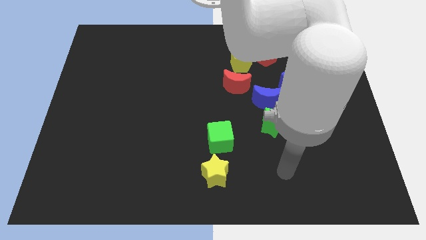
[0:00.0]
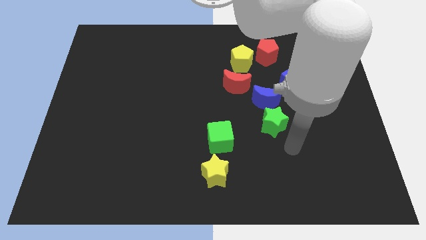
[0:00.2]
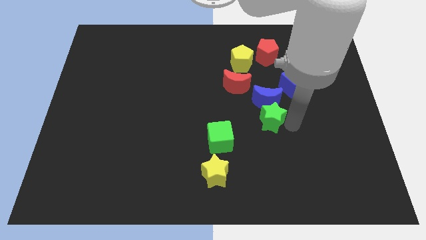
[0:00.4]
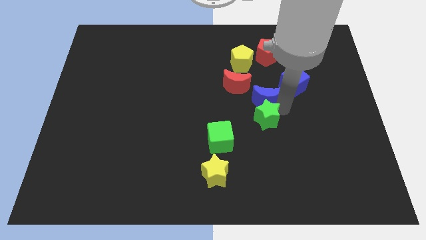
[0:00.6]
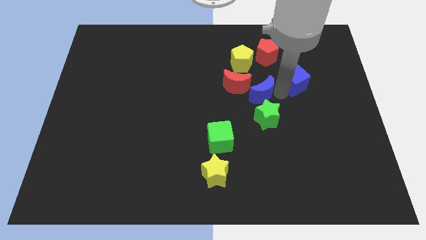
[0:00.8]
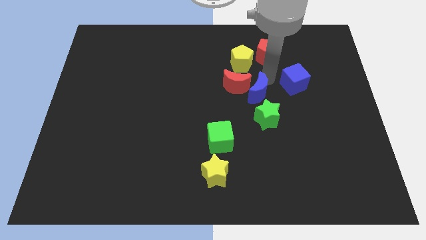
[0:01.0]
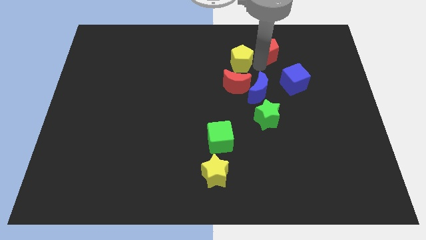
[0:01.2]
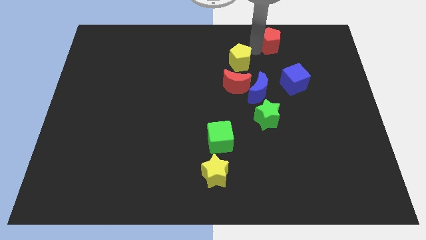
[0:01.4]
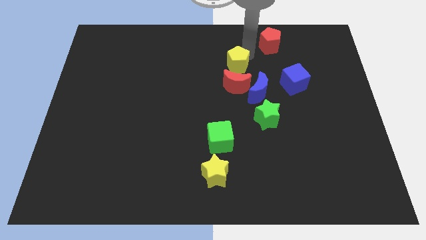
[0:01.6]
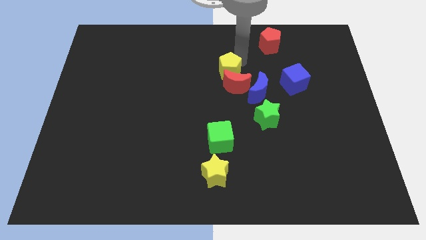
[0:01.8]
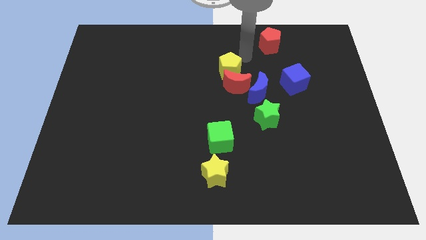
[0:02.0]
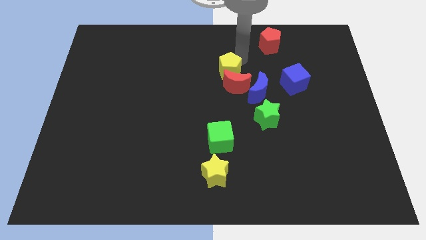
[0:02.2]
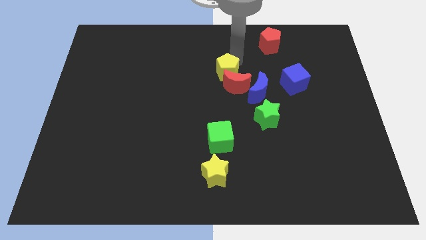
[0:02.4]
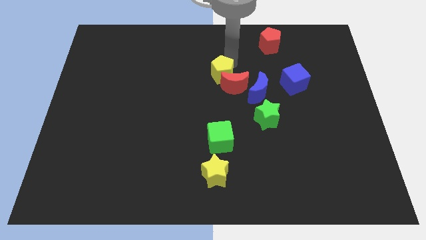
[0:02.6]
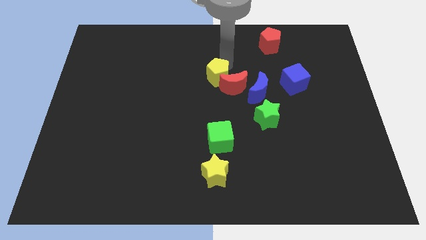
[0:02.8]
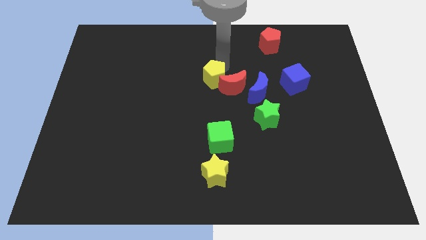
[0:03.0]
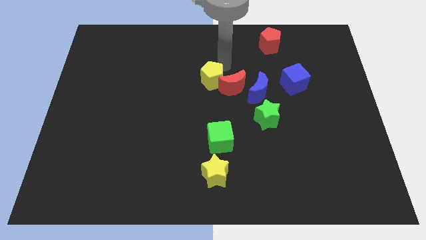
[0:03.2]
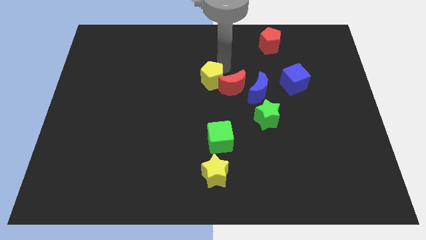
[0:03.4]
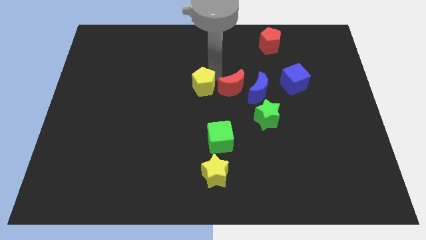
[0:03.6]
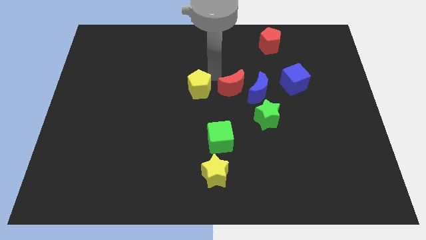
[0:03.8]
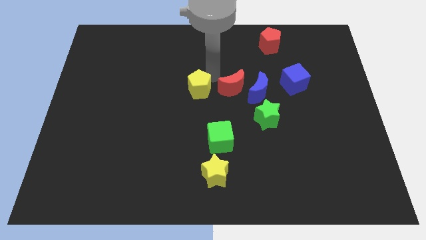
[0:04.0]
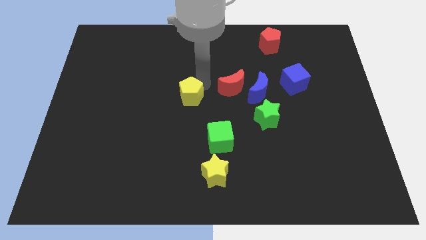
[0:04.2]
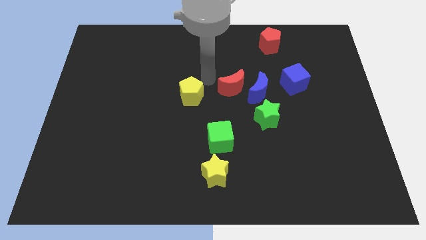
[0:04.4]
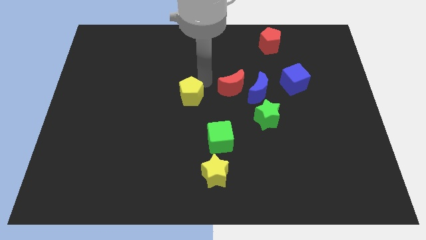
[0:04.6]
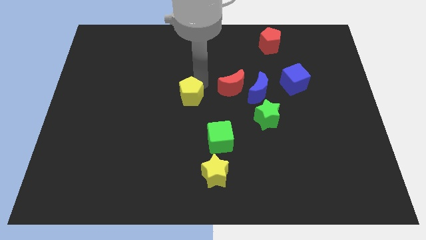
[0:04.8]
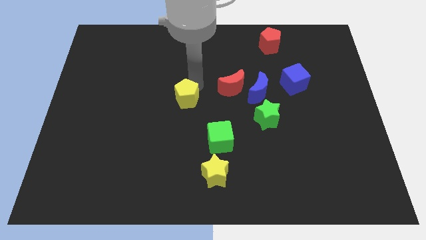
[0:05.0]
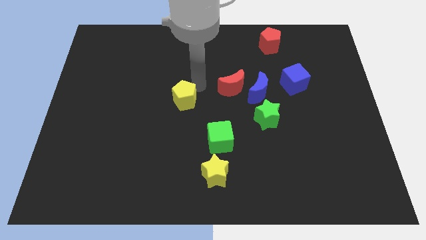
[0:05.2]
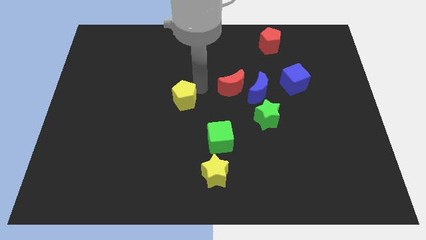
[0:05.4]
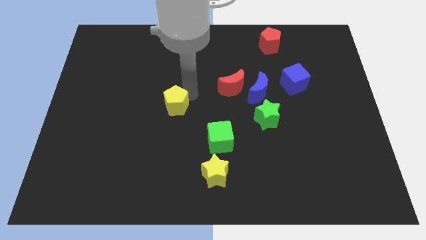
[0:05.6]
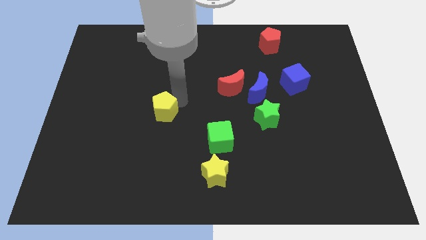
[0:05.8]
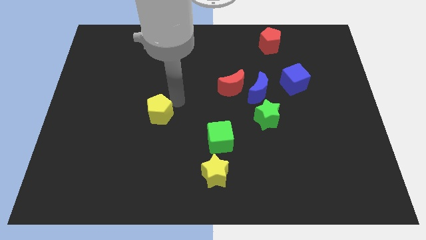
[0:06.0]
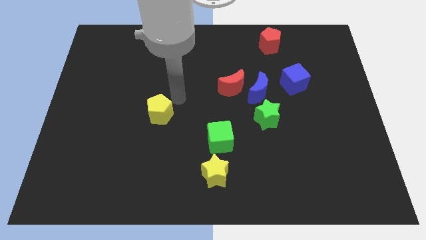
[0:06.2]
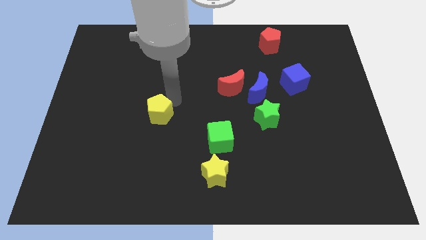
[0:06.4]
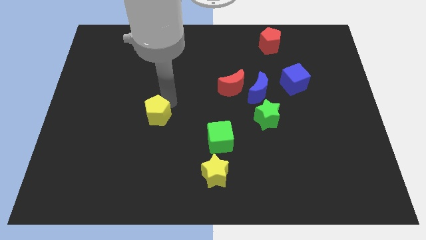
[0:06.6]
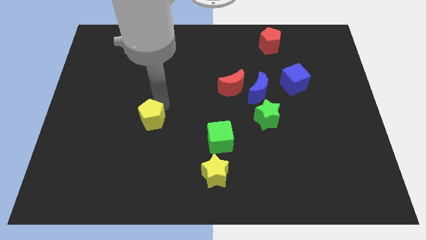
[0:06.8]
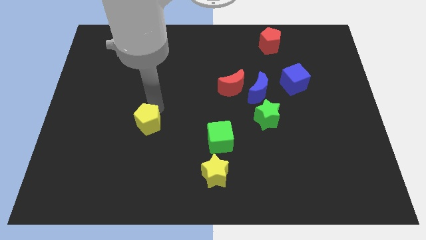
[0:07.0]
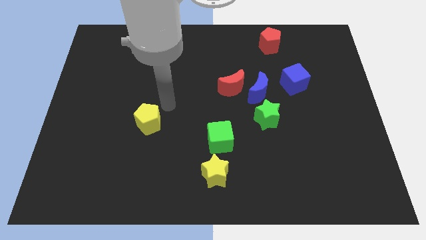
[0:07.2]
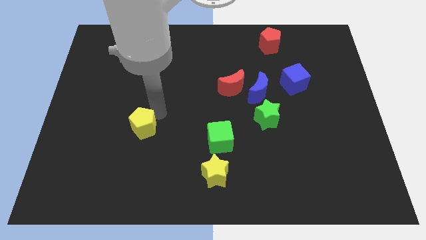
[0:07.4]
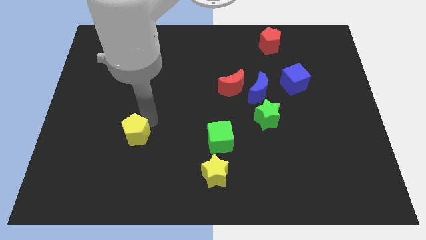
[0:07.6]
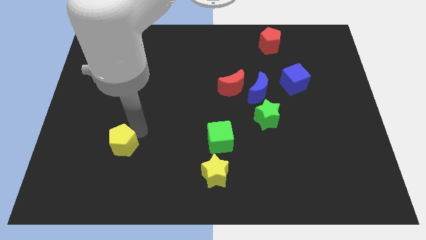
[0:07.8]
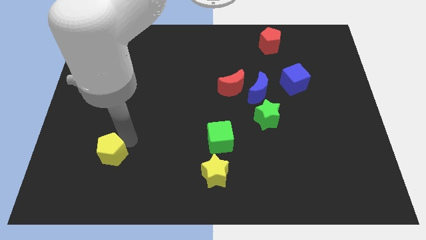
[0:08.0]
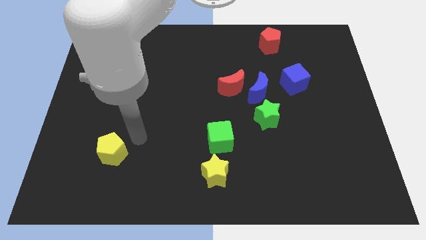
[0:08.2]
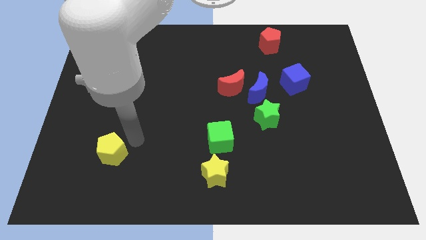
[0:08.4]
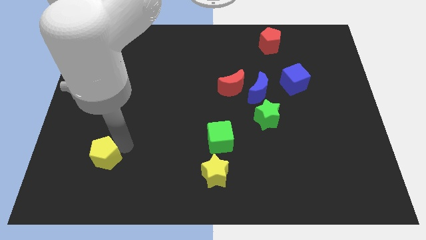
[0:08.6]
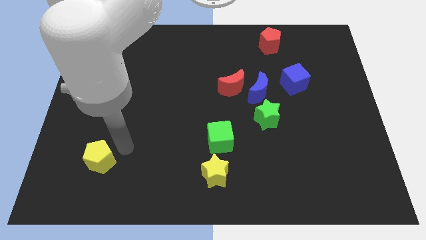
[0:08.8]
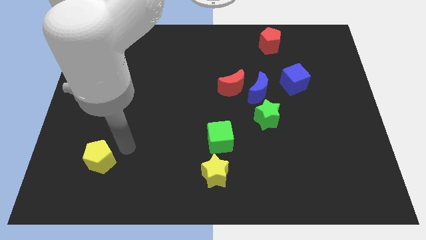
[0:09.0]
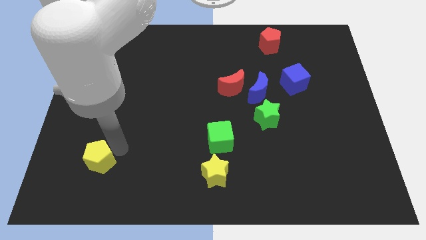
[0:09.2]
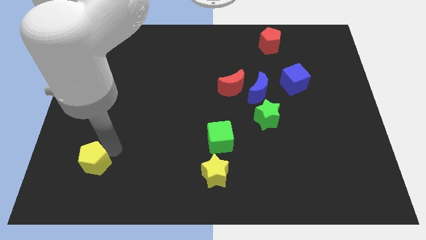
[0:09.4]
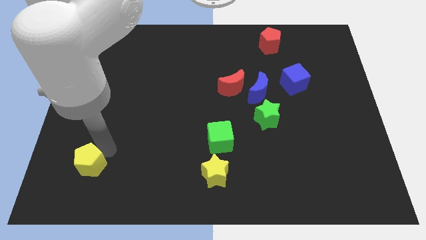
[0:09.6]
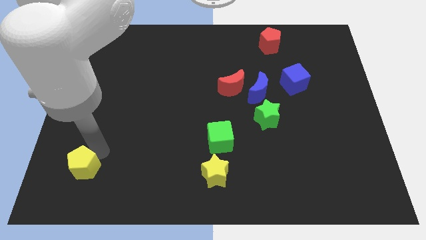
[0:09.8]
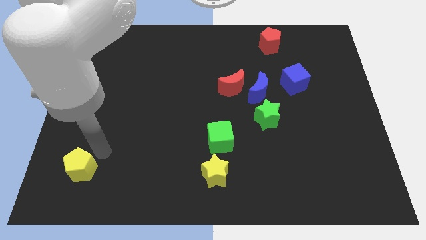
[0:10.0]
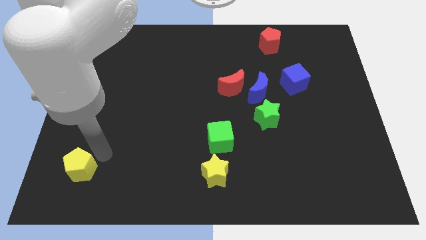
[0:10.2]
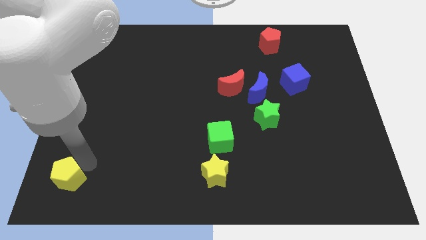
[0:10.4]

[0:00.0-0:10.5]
put the yellow pentagon to the bottom left of the board
